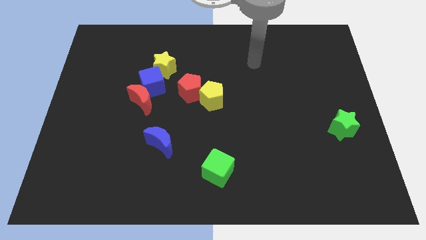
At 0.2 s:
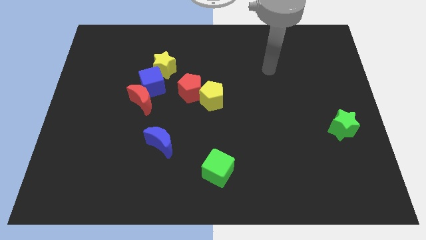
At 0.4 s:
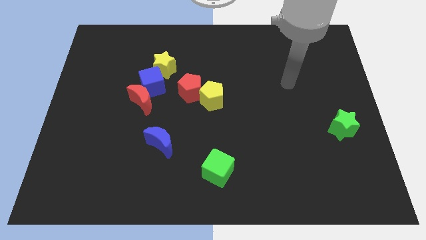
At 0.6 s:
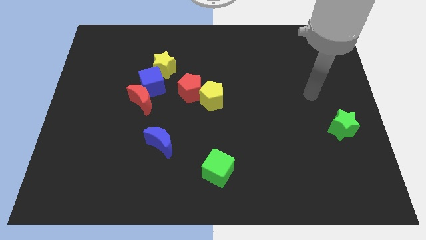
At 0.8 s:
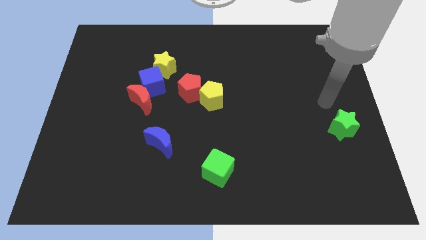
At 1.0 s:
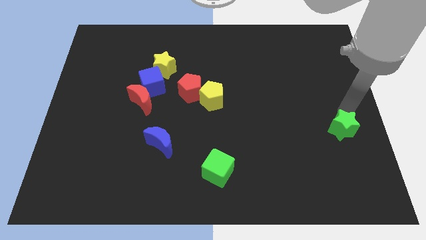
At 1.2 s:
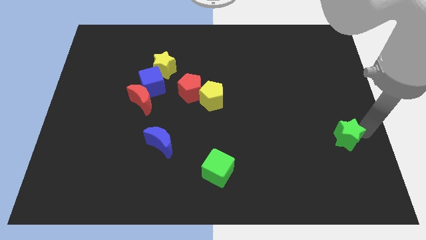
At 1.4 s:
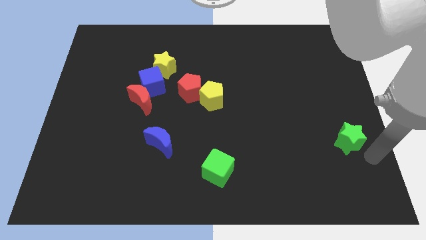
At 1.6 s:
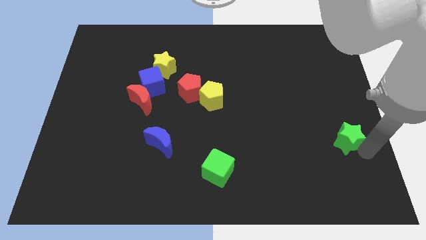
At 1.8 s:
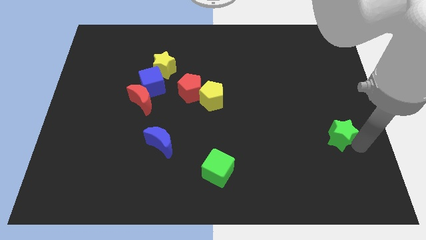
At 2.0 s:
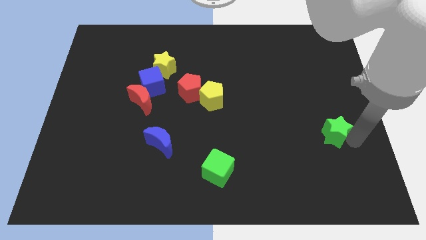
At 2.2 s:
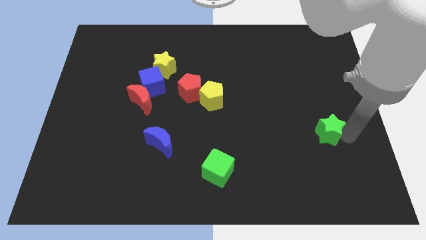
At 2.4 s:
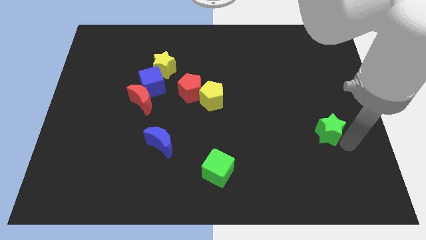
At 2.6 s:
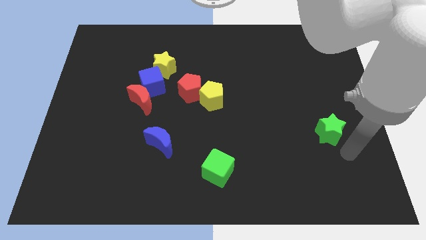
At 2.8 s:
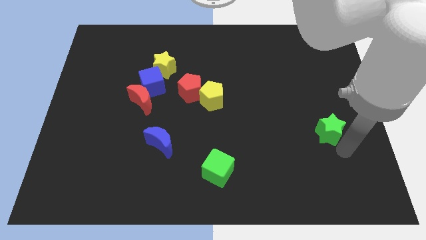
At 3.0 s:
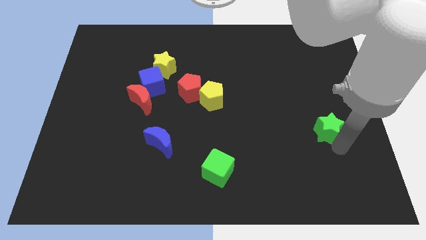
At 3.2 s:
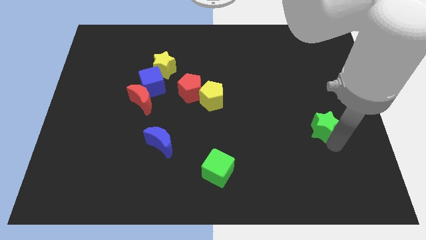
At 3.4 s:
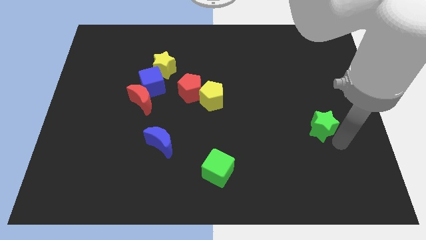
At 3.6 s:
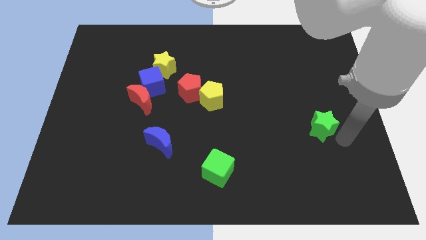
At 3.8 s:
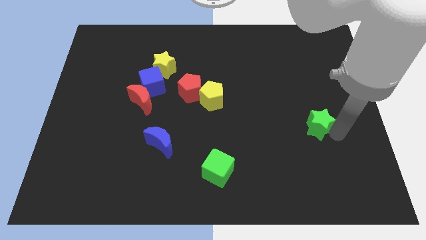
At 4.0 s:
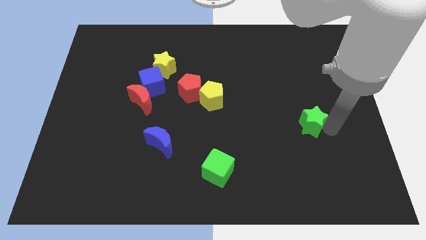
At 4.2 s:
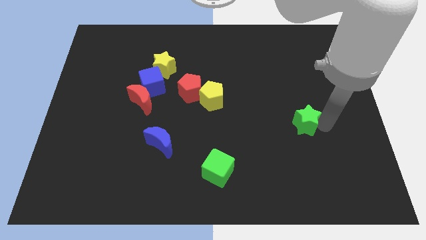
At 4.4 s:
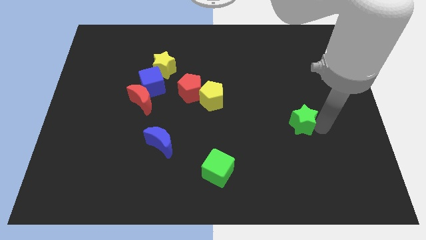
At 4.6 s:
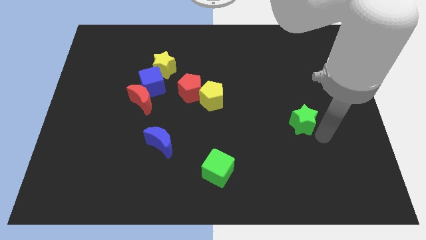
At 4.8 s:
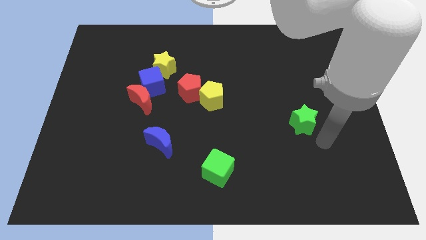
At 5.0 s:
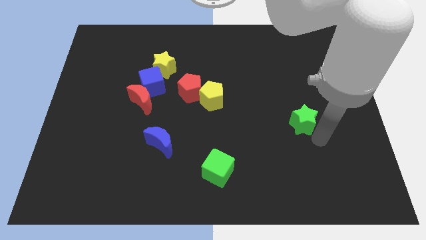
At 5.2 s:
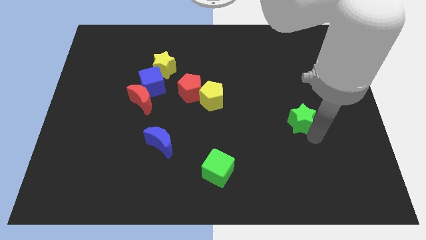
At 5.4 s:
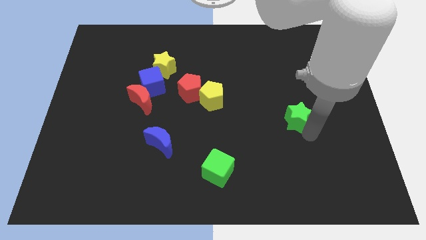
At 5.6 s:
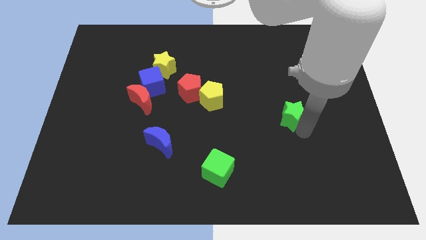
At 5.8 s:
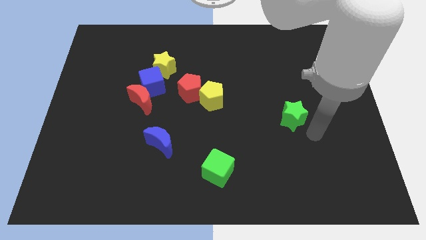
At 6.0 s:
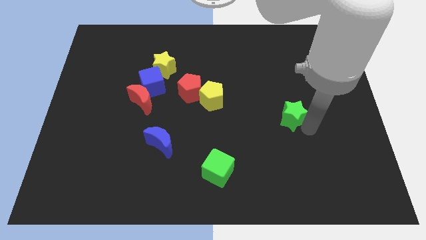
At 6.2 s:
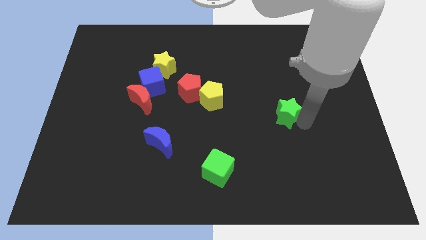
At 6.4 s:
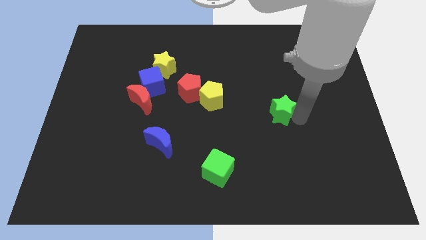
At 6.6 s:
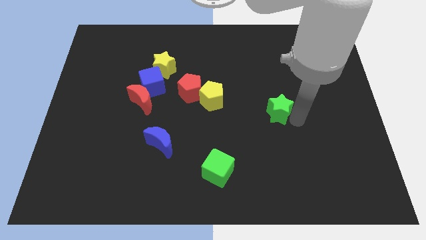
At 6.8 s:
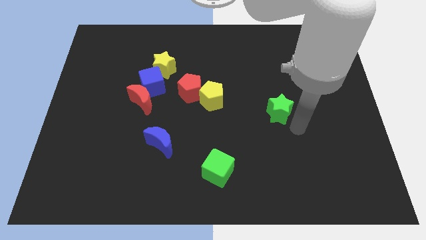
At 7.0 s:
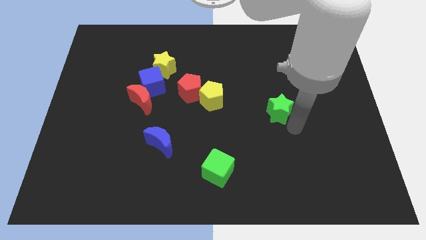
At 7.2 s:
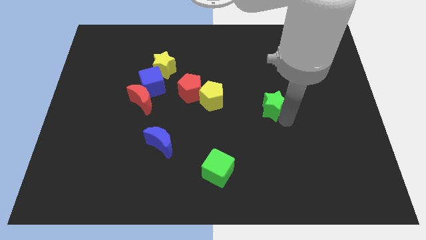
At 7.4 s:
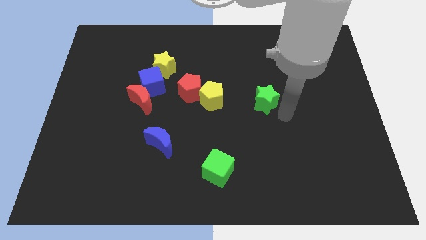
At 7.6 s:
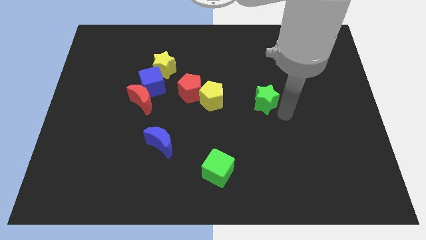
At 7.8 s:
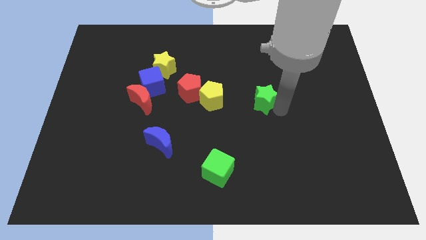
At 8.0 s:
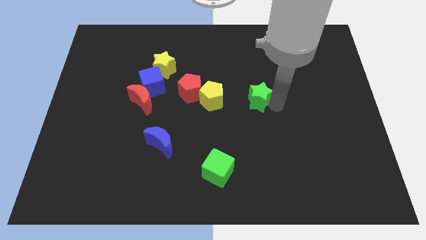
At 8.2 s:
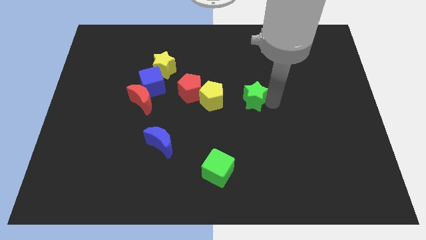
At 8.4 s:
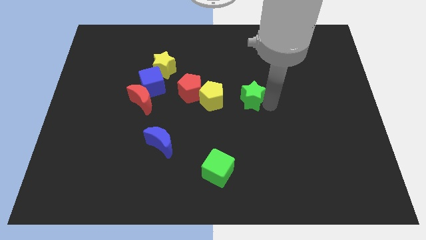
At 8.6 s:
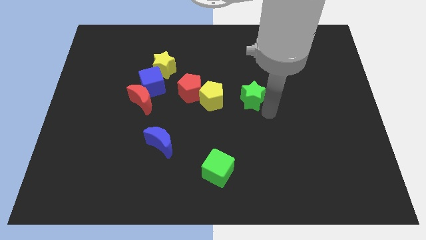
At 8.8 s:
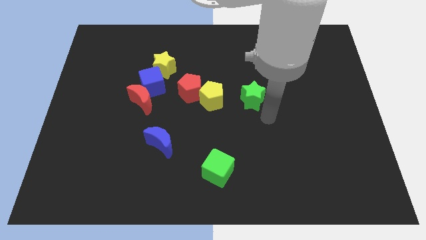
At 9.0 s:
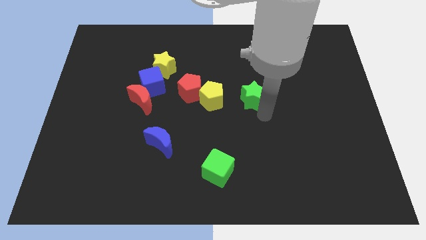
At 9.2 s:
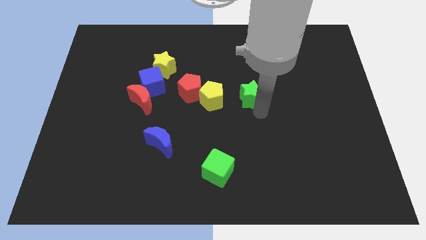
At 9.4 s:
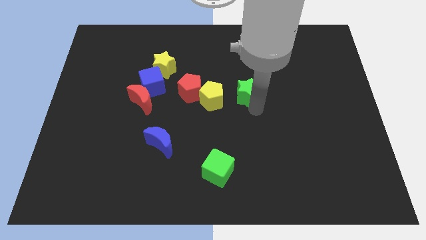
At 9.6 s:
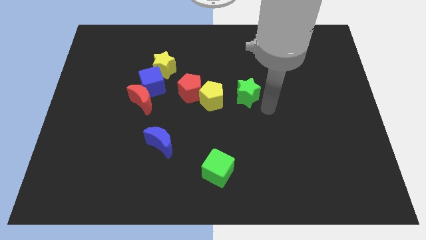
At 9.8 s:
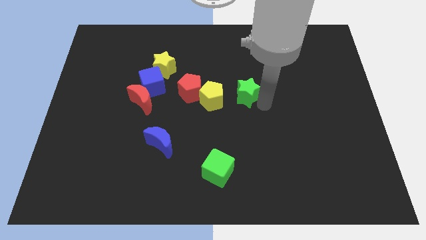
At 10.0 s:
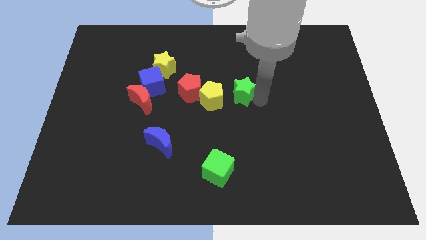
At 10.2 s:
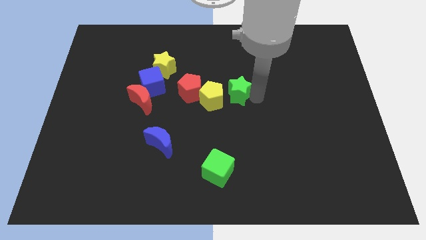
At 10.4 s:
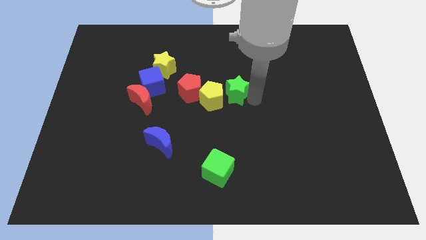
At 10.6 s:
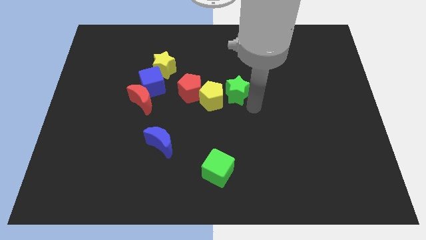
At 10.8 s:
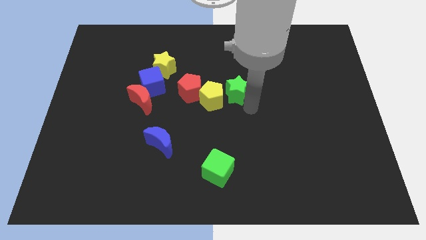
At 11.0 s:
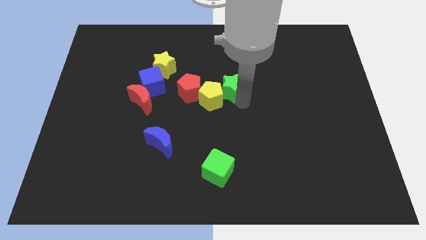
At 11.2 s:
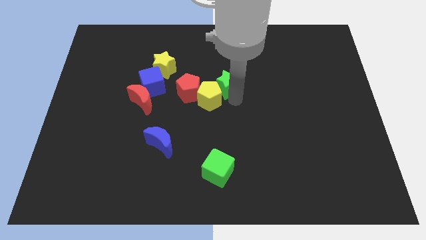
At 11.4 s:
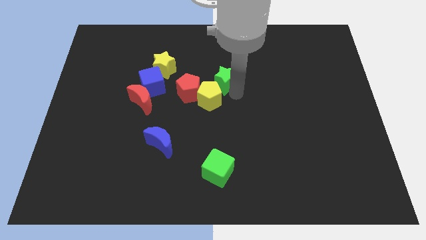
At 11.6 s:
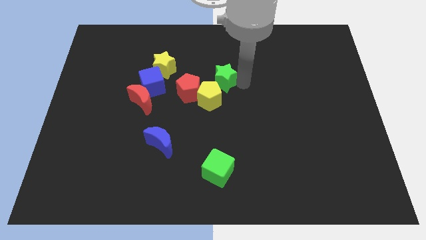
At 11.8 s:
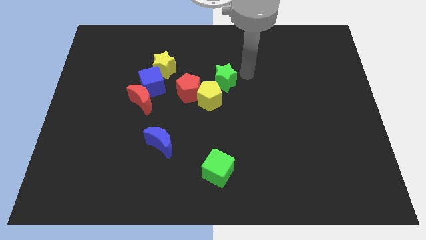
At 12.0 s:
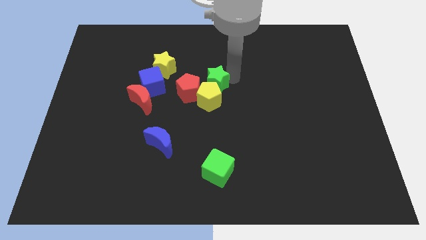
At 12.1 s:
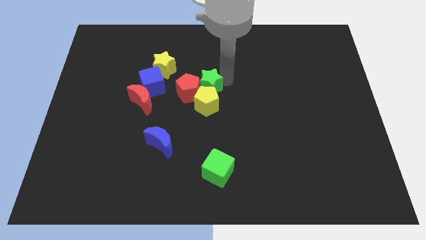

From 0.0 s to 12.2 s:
move the green star close to the red pentagon

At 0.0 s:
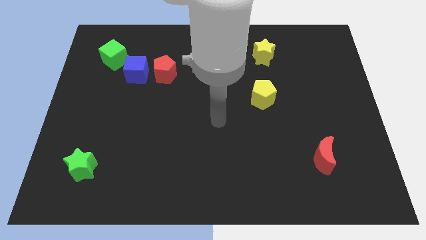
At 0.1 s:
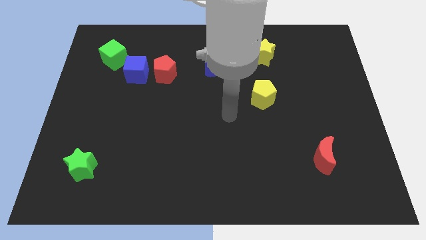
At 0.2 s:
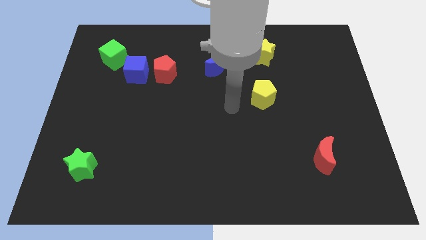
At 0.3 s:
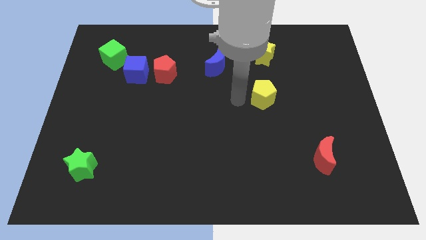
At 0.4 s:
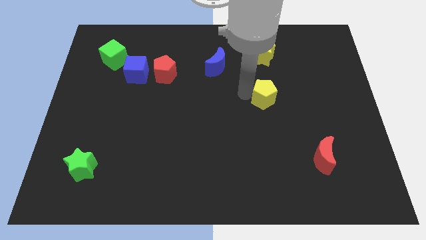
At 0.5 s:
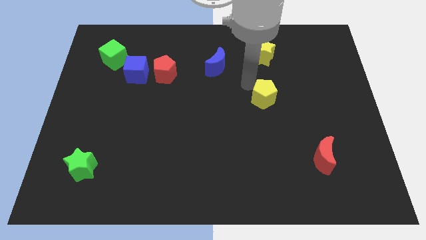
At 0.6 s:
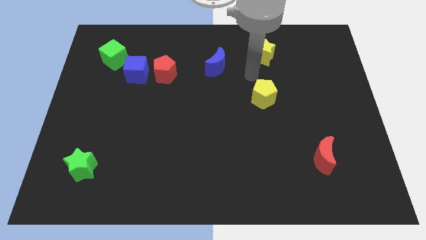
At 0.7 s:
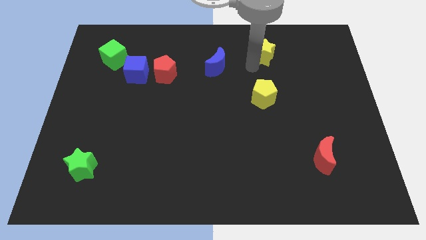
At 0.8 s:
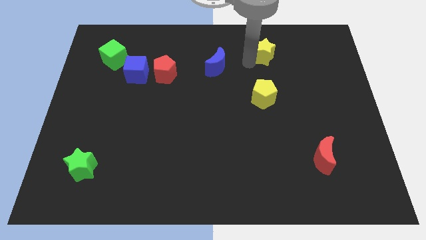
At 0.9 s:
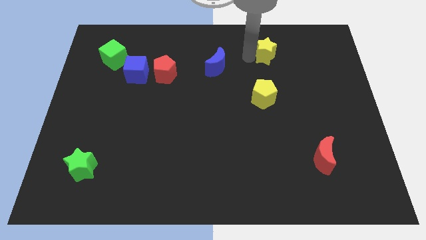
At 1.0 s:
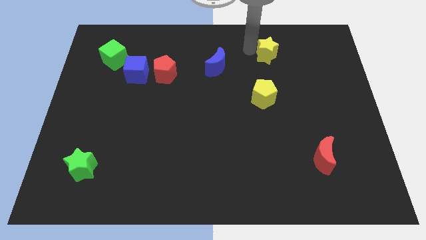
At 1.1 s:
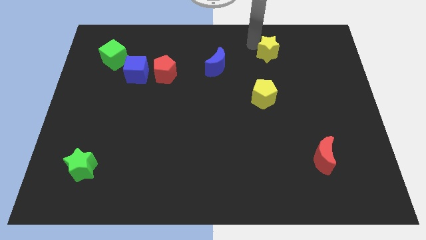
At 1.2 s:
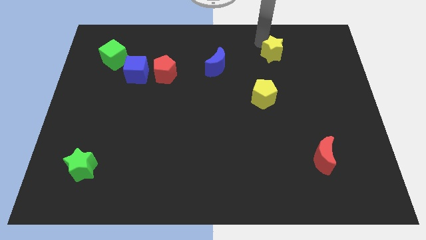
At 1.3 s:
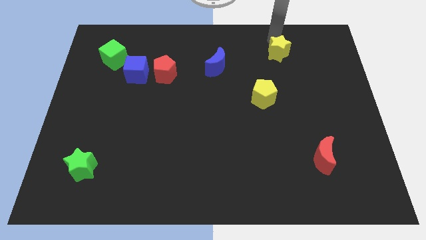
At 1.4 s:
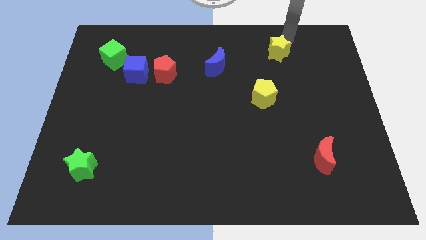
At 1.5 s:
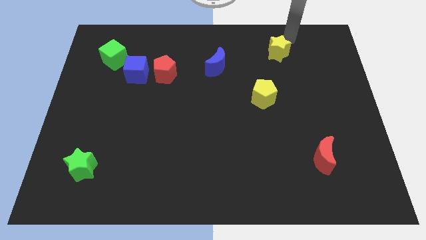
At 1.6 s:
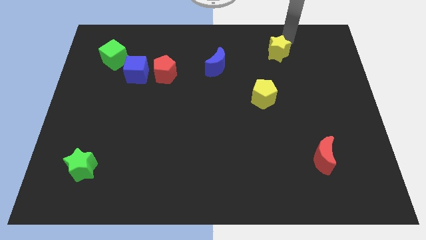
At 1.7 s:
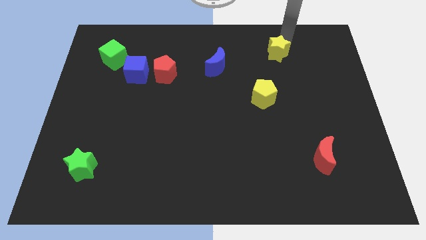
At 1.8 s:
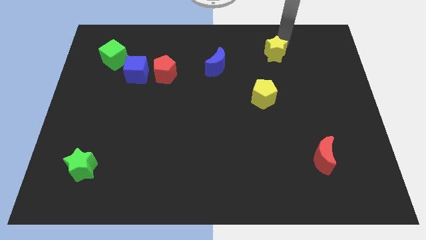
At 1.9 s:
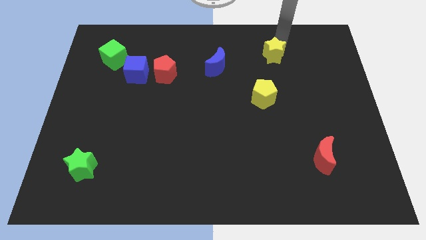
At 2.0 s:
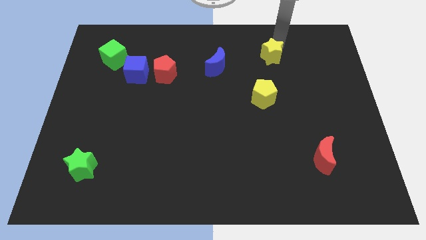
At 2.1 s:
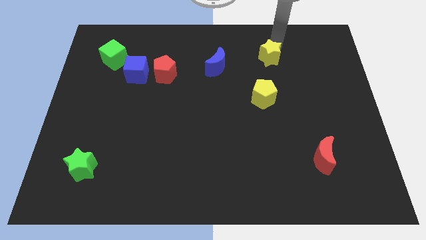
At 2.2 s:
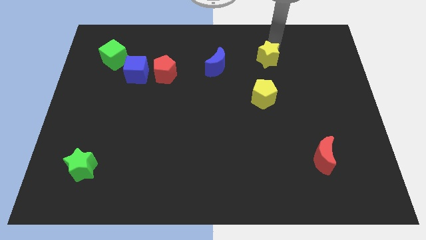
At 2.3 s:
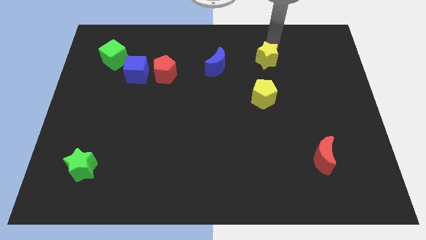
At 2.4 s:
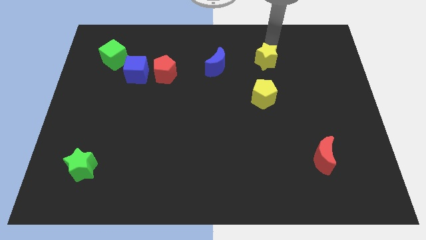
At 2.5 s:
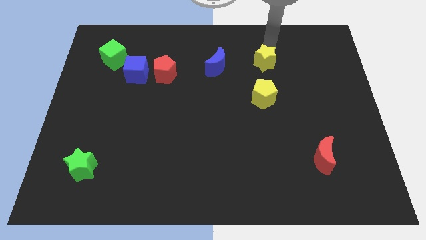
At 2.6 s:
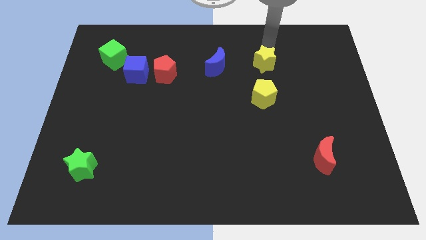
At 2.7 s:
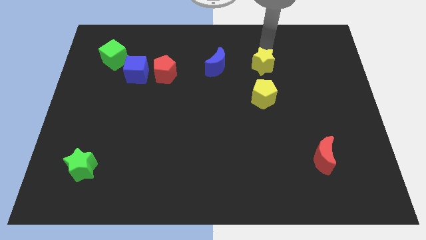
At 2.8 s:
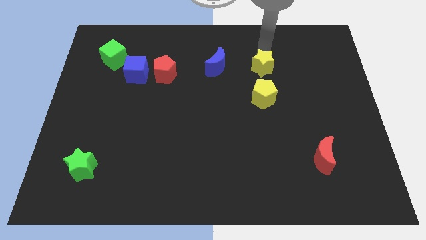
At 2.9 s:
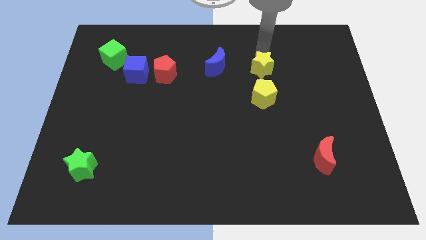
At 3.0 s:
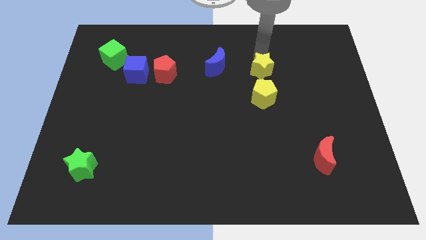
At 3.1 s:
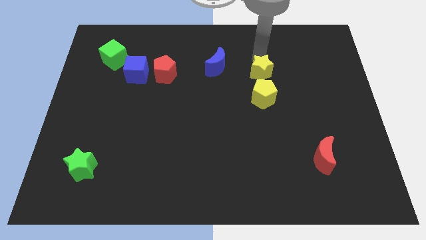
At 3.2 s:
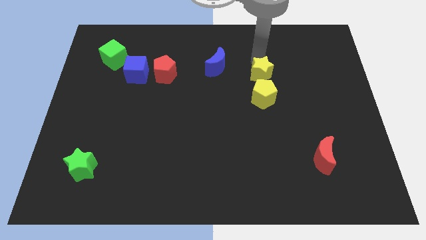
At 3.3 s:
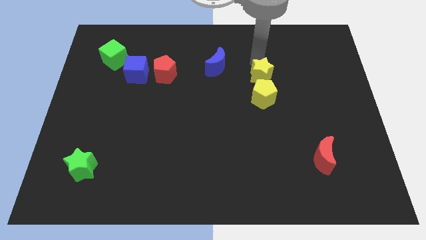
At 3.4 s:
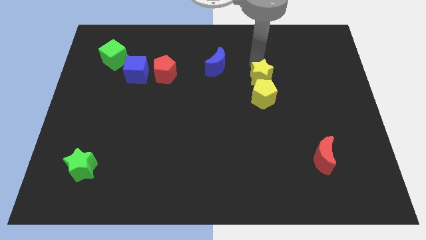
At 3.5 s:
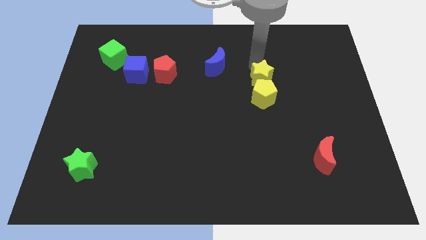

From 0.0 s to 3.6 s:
put the yellow star to the yellow pentagon
